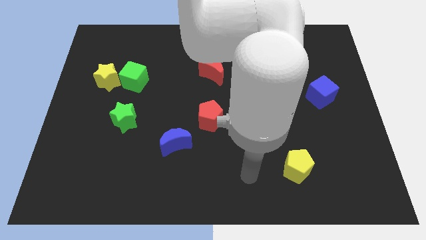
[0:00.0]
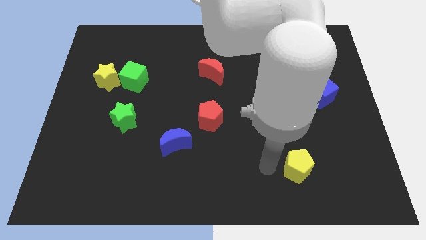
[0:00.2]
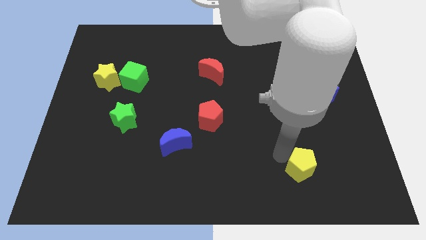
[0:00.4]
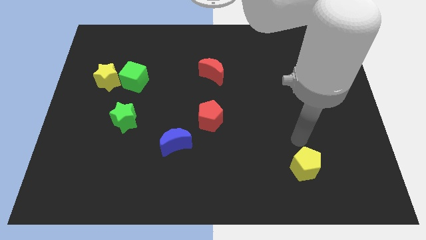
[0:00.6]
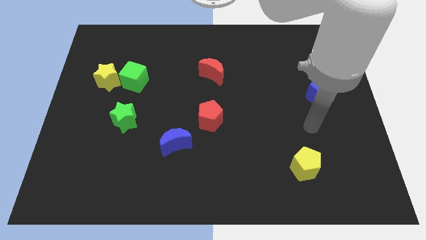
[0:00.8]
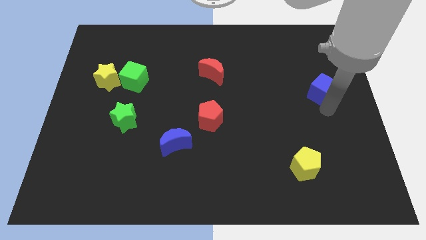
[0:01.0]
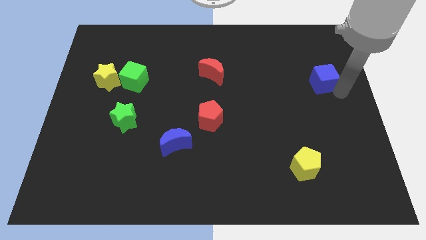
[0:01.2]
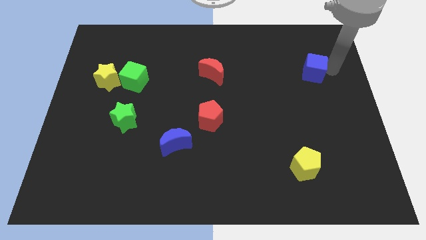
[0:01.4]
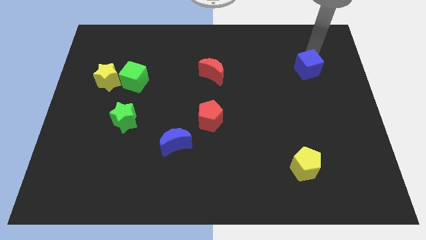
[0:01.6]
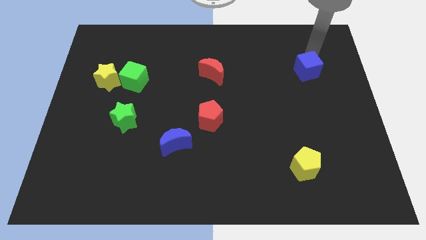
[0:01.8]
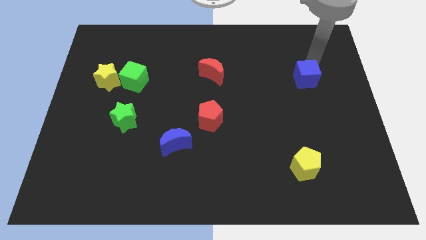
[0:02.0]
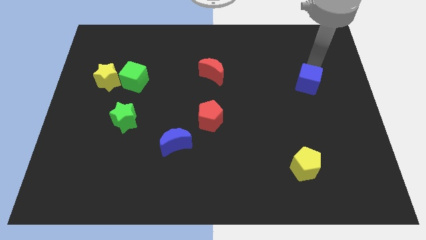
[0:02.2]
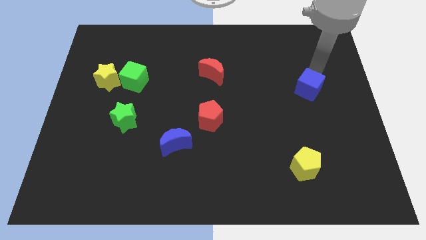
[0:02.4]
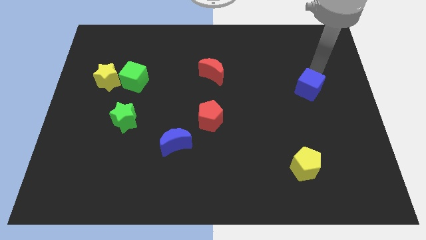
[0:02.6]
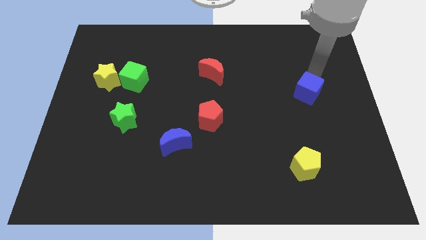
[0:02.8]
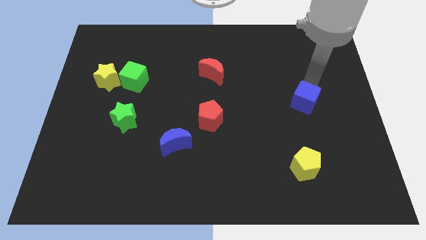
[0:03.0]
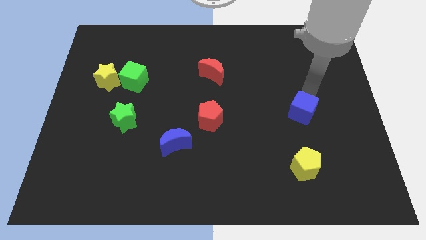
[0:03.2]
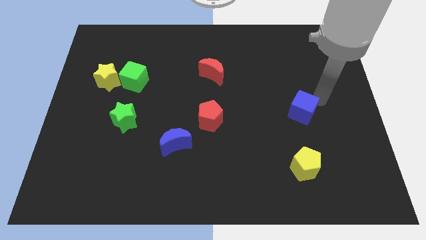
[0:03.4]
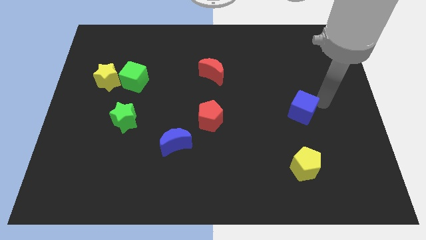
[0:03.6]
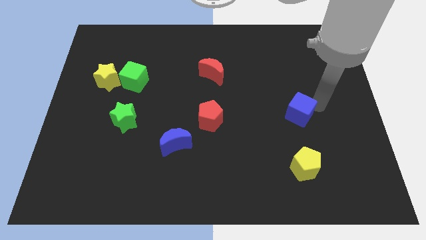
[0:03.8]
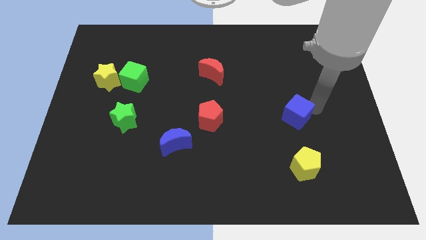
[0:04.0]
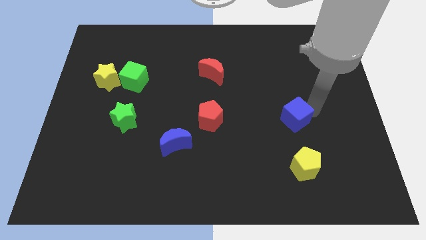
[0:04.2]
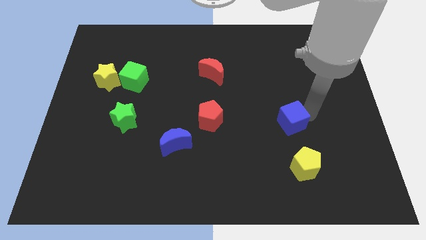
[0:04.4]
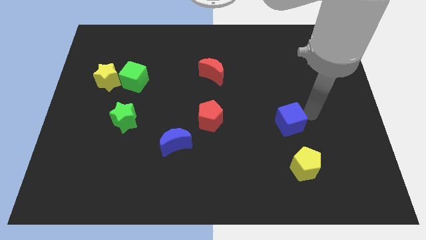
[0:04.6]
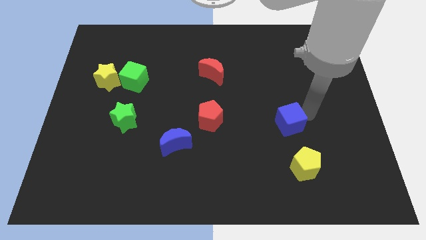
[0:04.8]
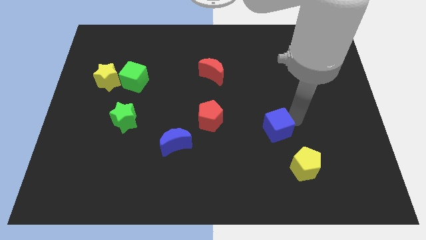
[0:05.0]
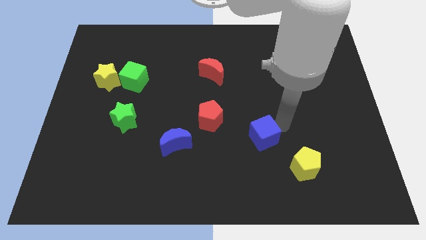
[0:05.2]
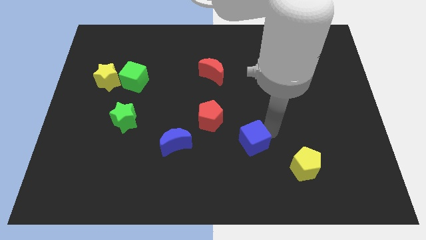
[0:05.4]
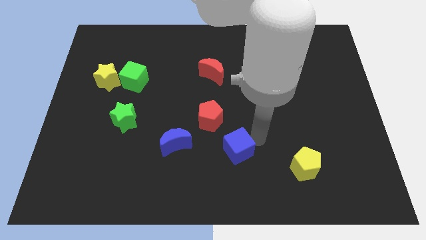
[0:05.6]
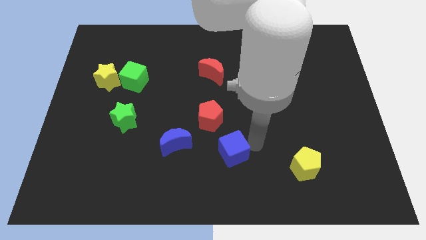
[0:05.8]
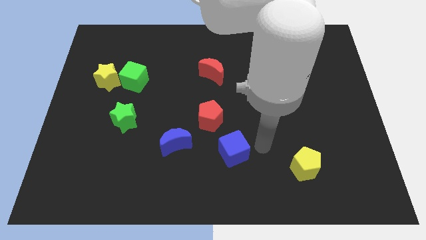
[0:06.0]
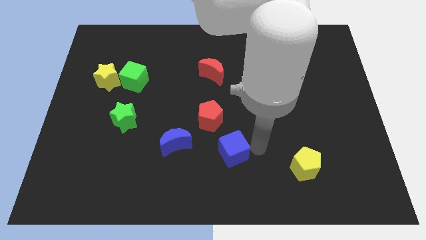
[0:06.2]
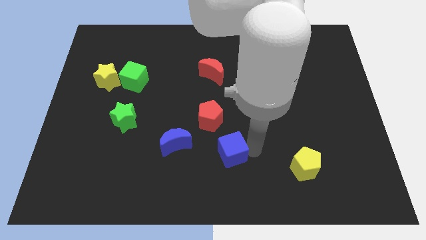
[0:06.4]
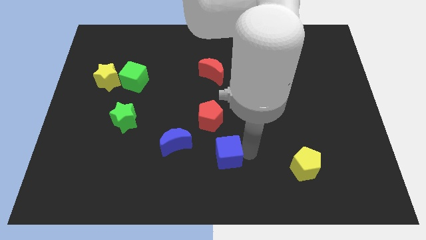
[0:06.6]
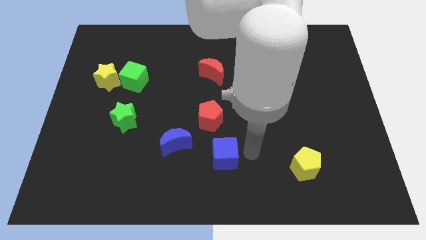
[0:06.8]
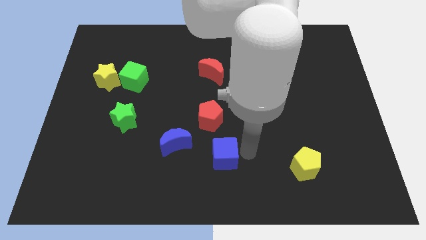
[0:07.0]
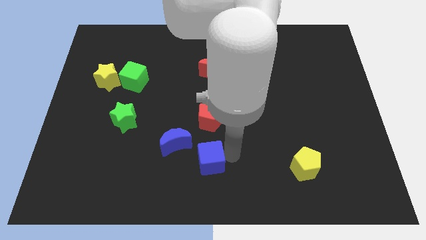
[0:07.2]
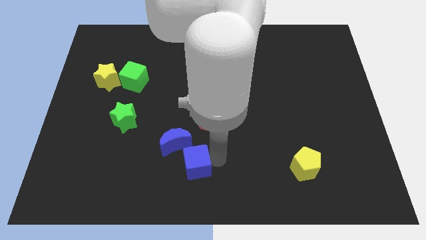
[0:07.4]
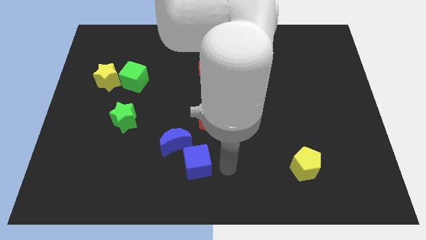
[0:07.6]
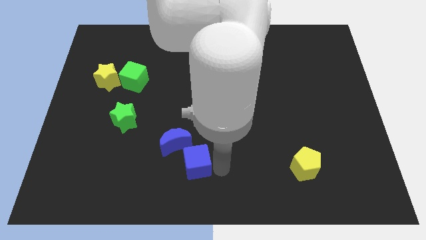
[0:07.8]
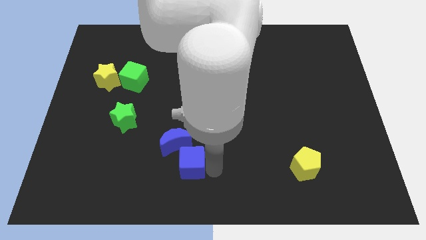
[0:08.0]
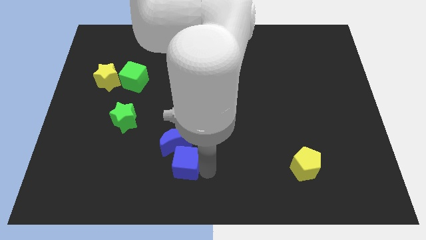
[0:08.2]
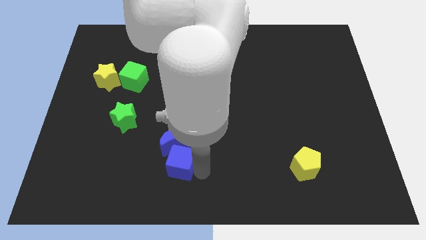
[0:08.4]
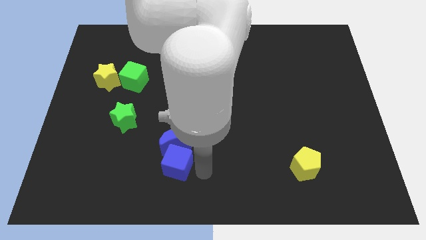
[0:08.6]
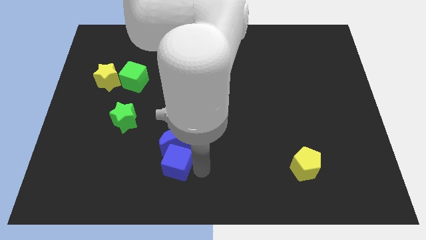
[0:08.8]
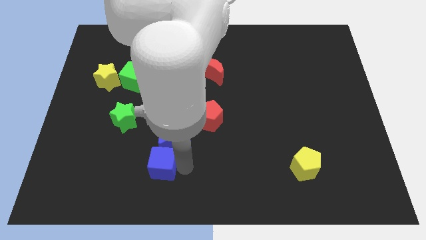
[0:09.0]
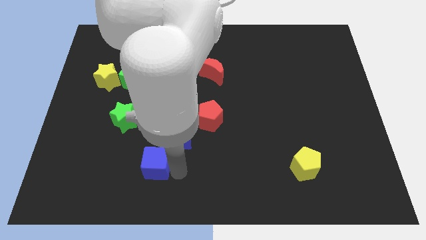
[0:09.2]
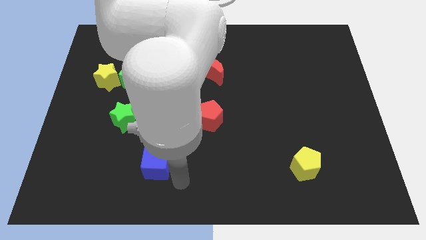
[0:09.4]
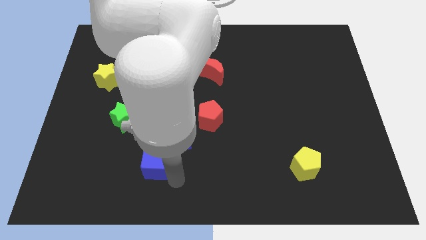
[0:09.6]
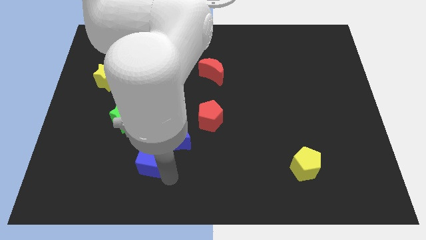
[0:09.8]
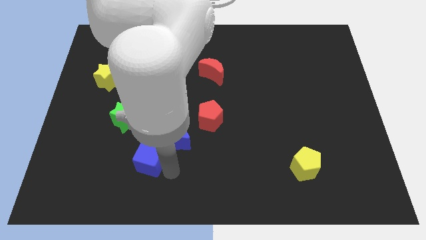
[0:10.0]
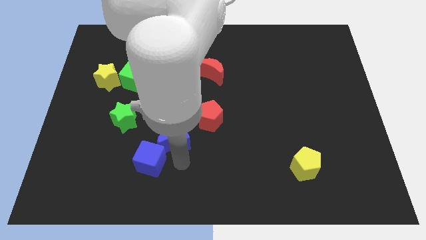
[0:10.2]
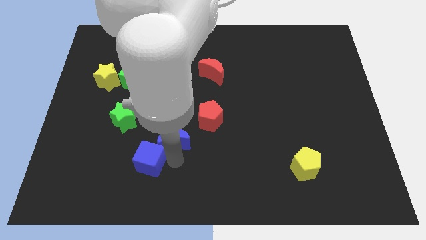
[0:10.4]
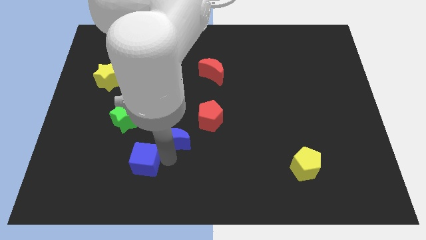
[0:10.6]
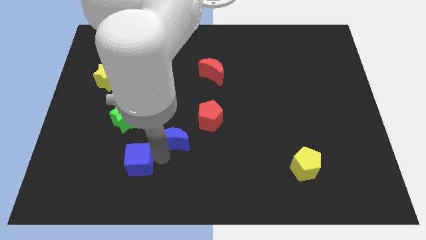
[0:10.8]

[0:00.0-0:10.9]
put the blue cube to the bottom side of the green star

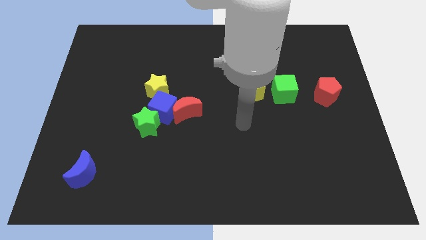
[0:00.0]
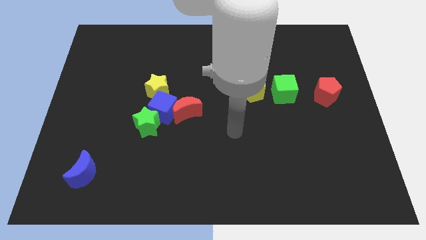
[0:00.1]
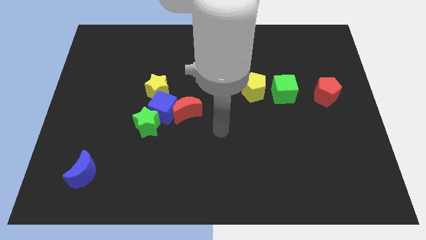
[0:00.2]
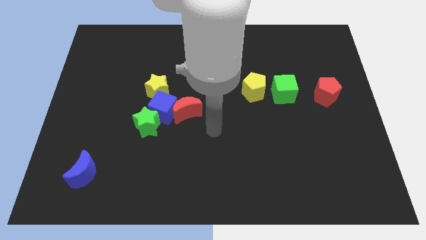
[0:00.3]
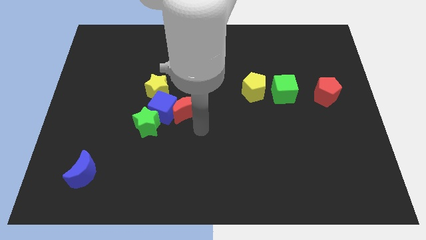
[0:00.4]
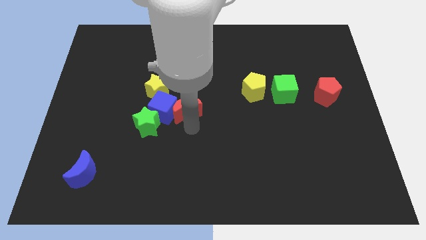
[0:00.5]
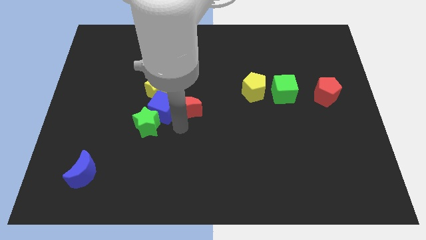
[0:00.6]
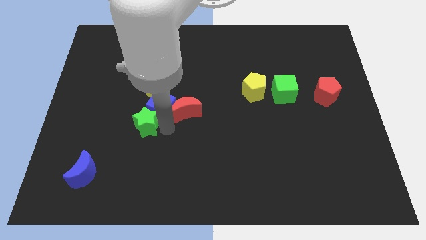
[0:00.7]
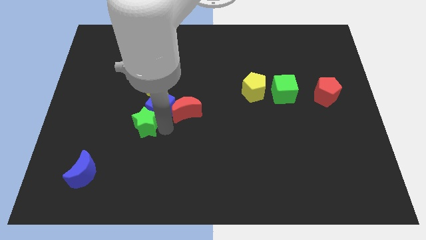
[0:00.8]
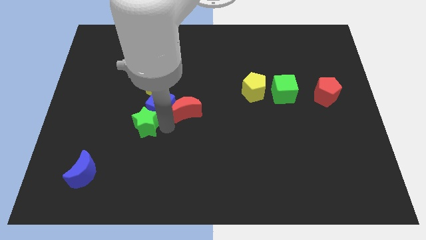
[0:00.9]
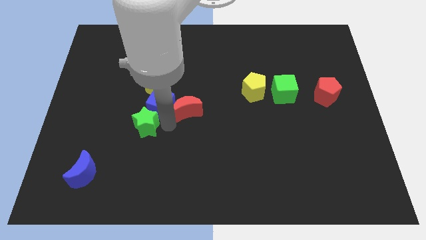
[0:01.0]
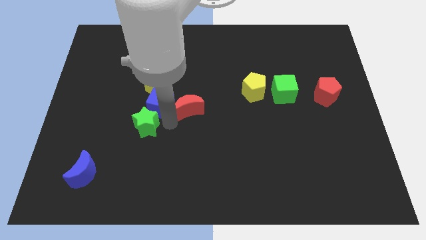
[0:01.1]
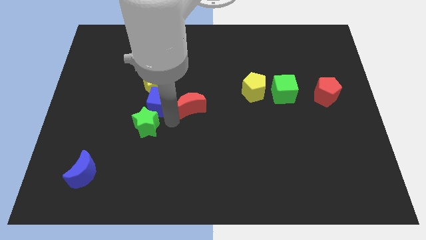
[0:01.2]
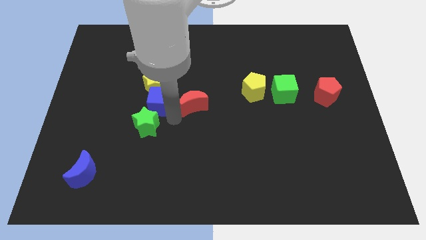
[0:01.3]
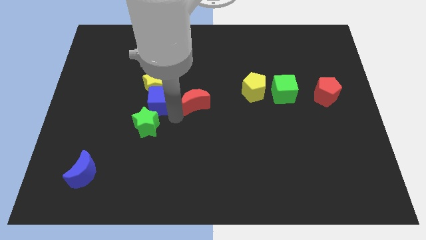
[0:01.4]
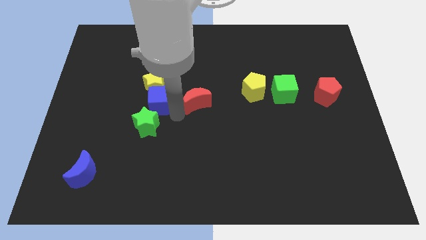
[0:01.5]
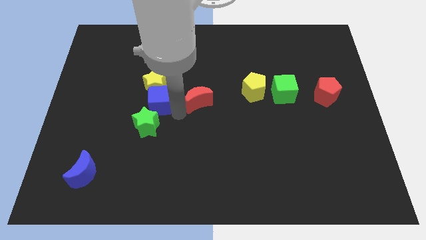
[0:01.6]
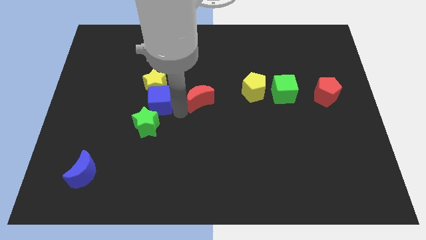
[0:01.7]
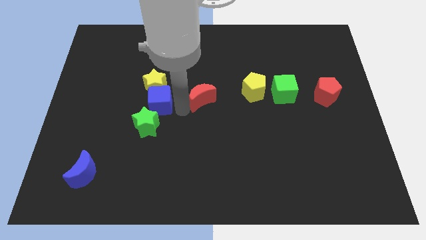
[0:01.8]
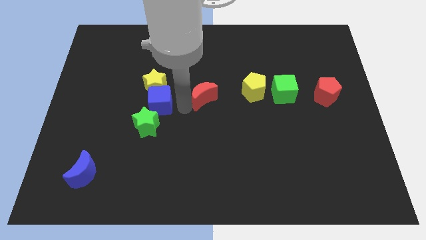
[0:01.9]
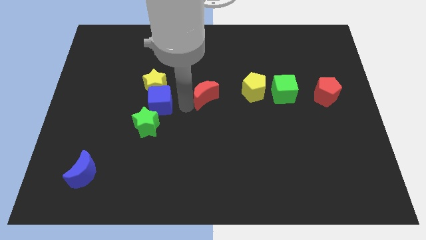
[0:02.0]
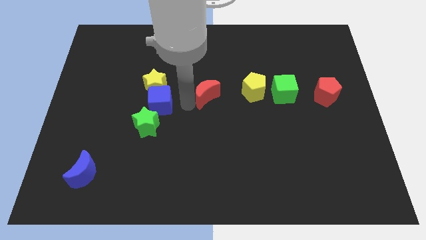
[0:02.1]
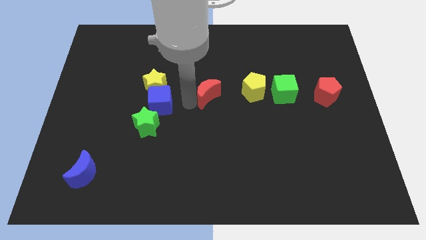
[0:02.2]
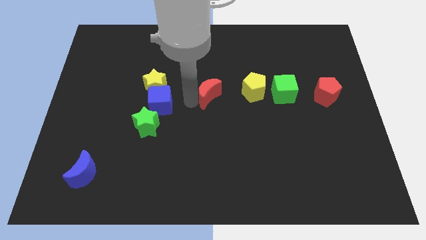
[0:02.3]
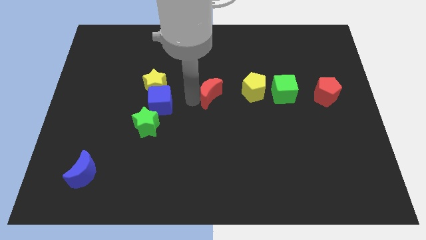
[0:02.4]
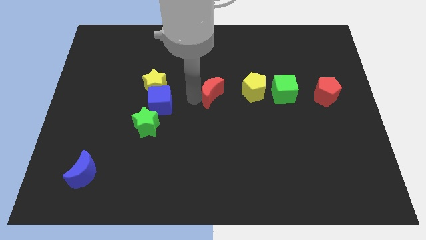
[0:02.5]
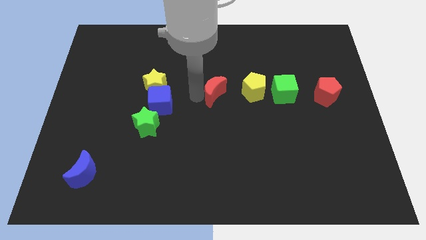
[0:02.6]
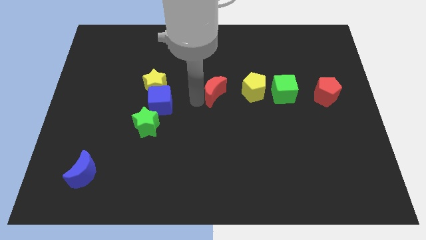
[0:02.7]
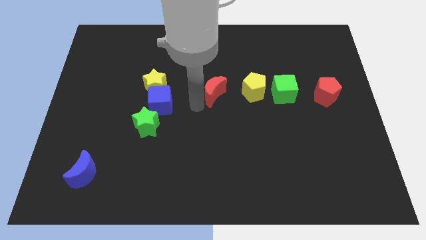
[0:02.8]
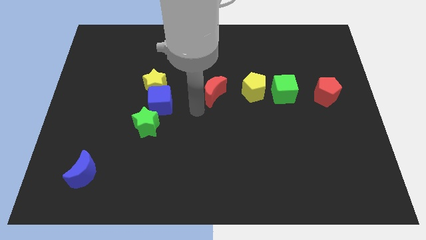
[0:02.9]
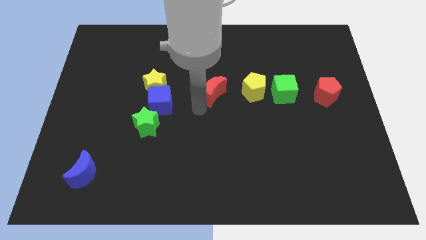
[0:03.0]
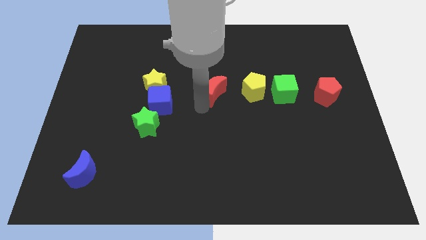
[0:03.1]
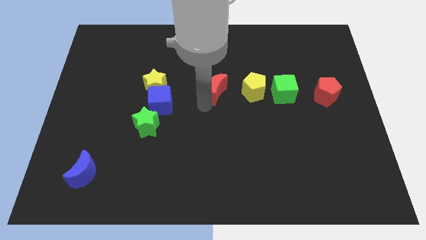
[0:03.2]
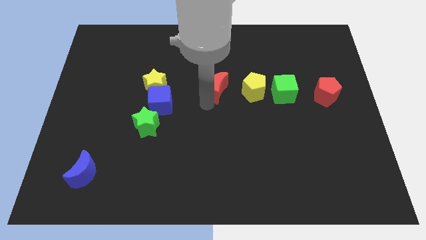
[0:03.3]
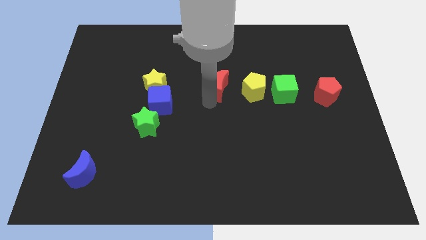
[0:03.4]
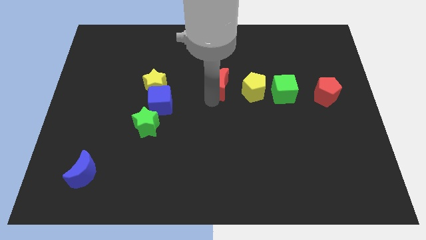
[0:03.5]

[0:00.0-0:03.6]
push the red moon diagonally up and to the left of the yellow pentagon
